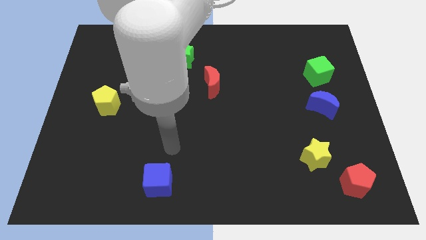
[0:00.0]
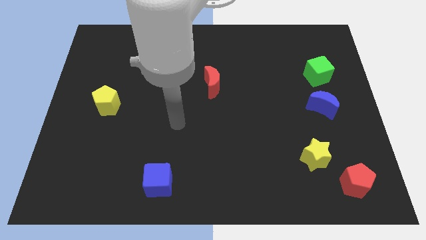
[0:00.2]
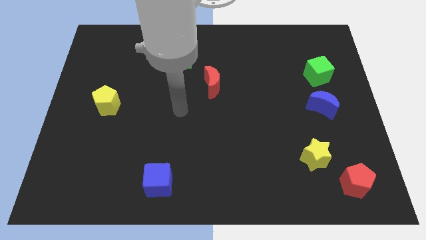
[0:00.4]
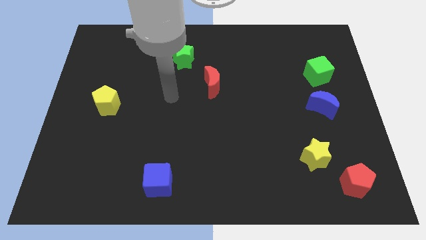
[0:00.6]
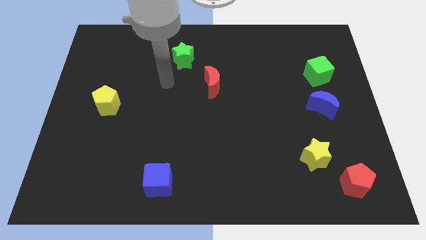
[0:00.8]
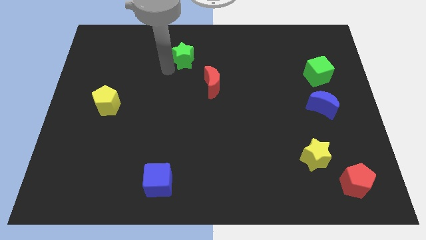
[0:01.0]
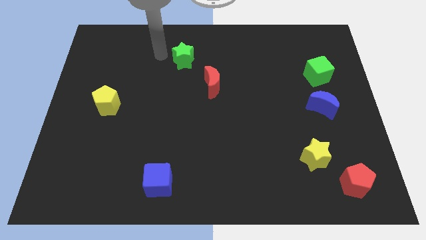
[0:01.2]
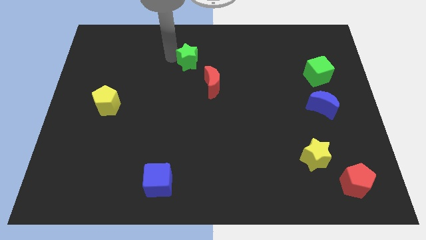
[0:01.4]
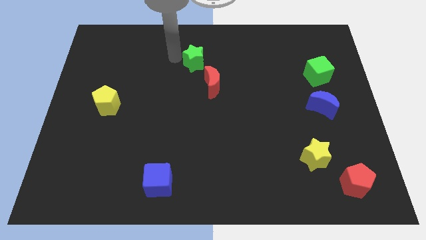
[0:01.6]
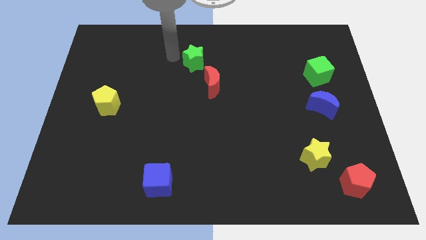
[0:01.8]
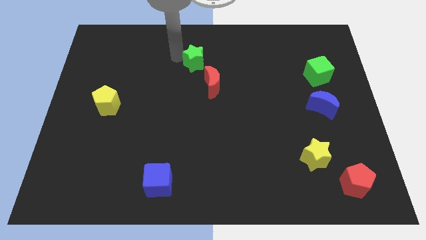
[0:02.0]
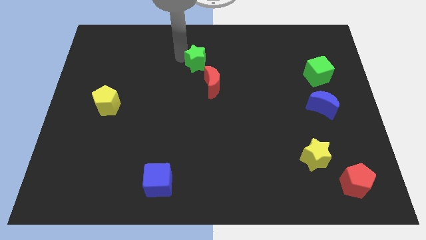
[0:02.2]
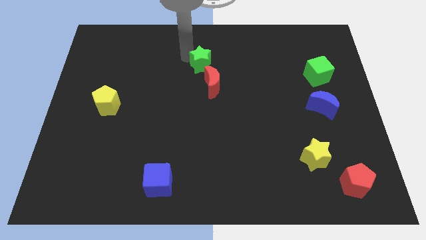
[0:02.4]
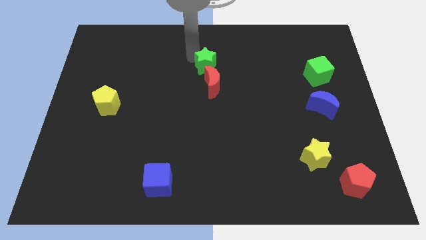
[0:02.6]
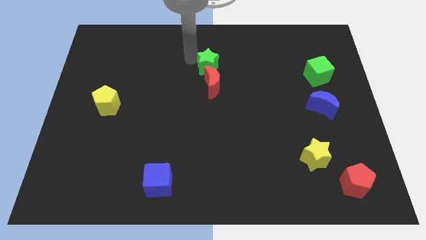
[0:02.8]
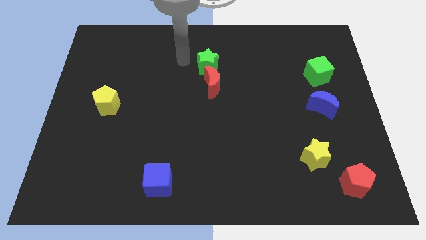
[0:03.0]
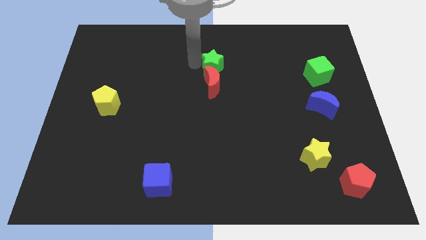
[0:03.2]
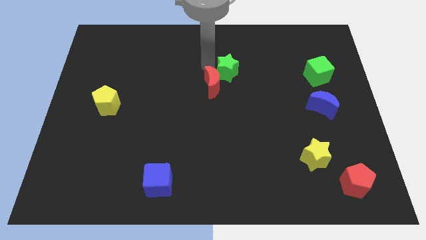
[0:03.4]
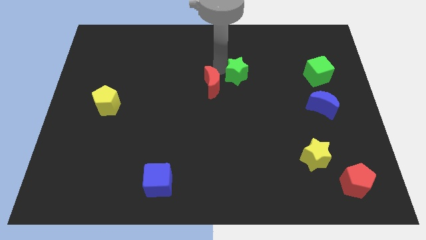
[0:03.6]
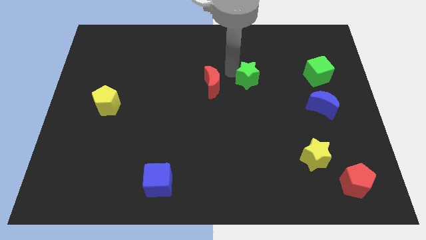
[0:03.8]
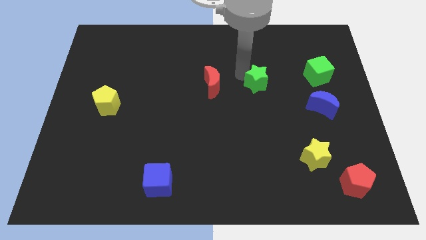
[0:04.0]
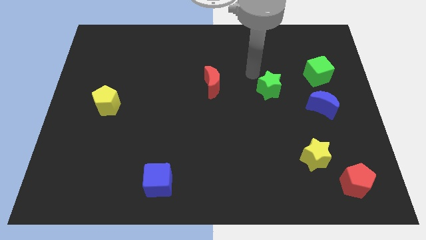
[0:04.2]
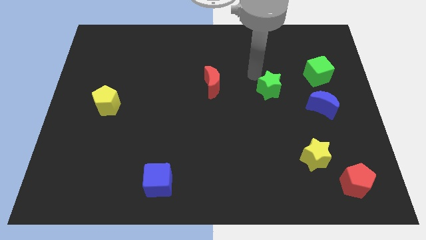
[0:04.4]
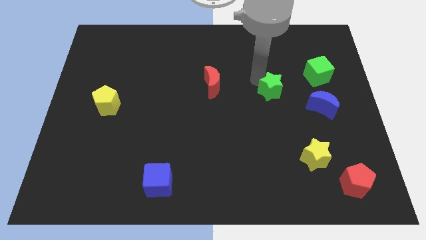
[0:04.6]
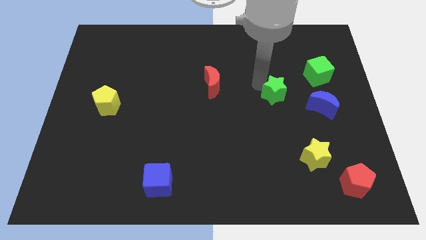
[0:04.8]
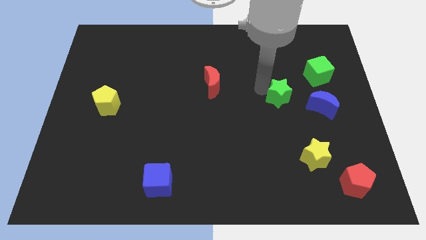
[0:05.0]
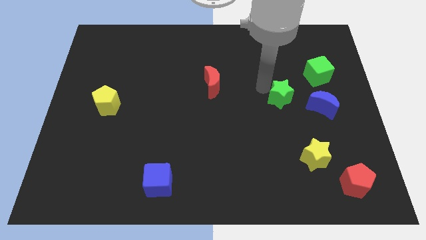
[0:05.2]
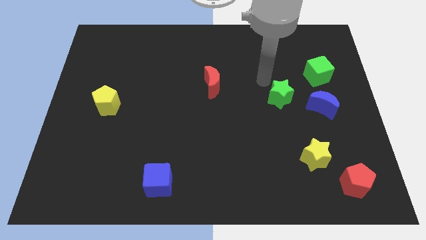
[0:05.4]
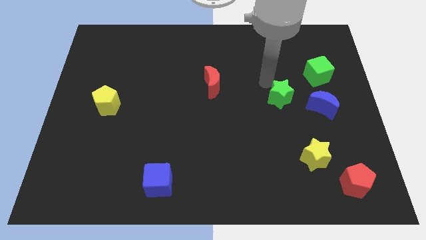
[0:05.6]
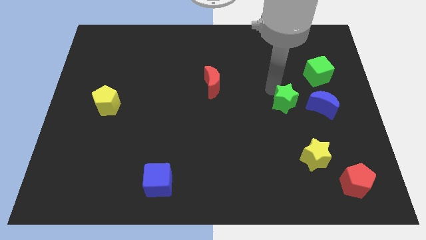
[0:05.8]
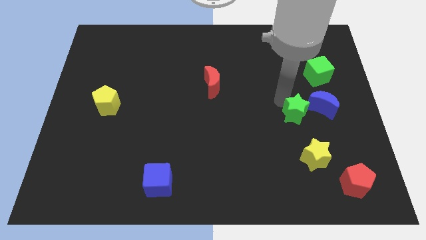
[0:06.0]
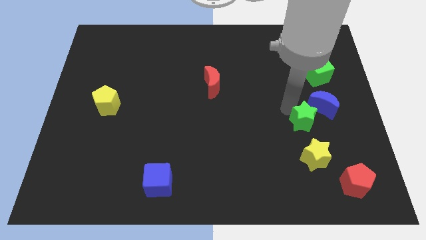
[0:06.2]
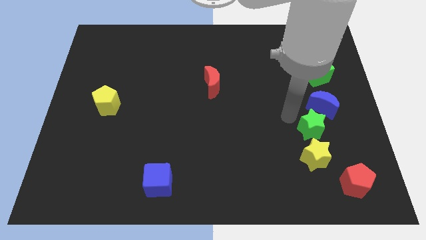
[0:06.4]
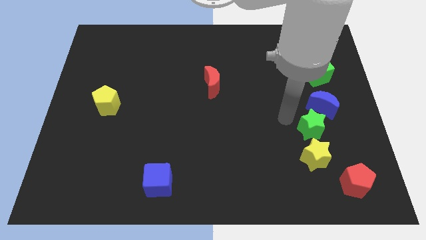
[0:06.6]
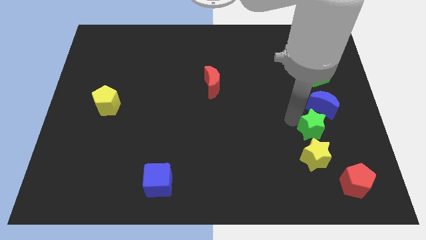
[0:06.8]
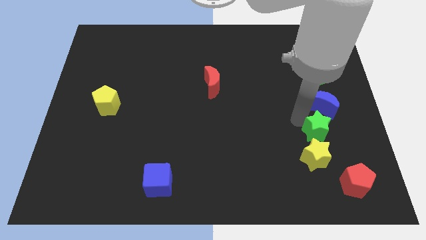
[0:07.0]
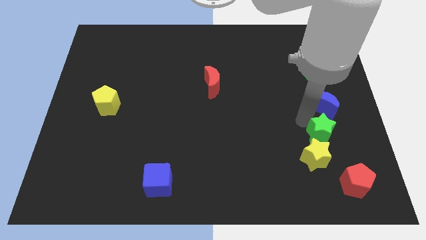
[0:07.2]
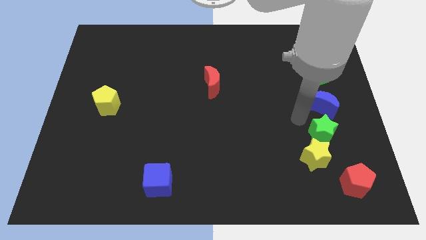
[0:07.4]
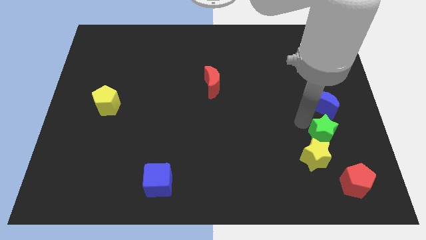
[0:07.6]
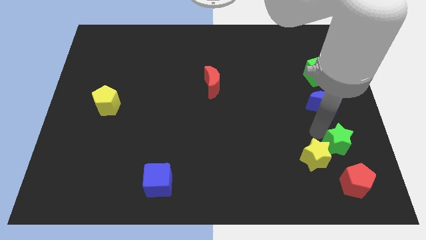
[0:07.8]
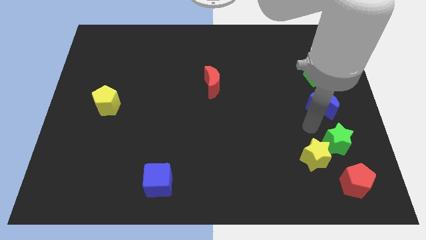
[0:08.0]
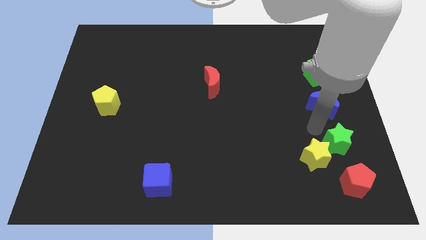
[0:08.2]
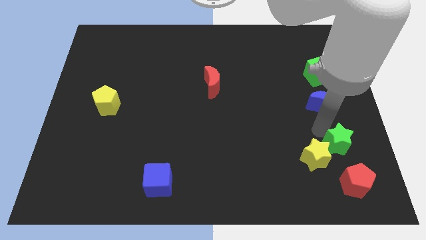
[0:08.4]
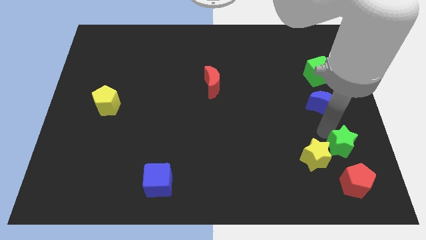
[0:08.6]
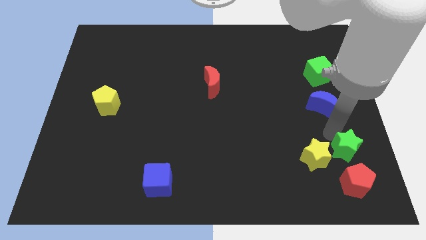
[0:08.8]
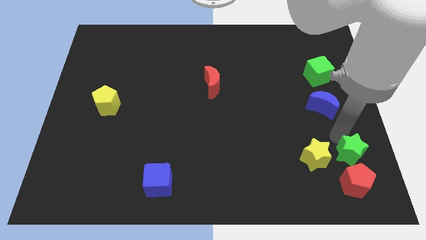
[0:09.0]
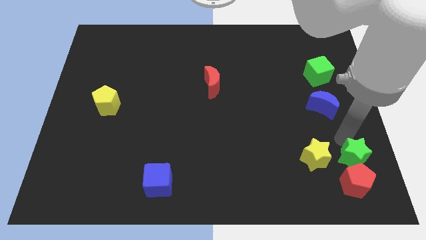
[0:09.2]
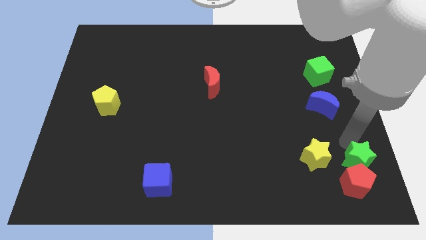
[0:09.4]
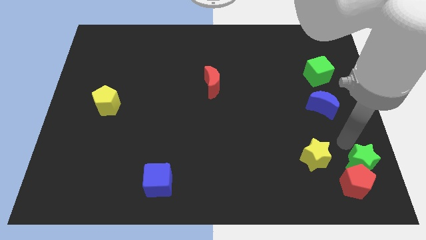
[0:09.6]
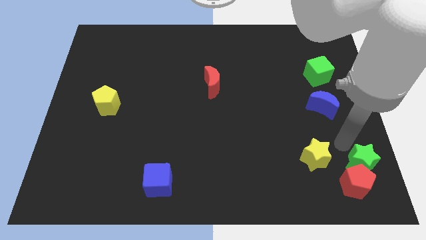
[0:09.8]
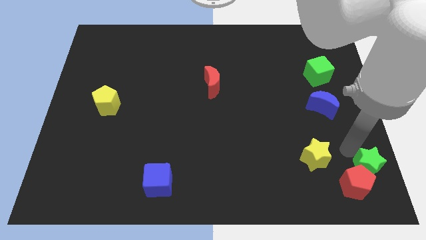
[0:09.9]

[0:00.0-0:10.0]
move the green star to the bottom right corner

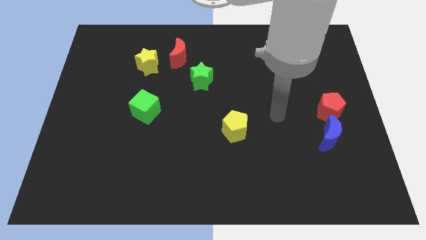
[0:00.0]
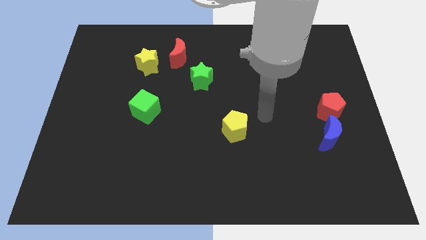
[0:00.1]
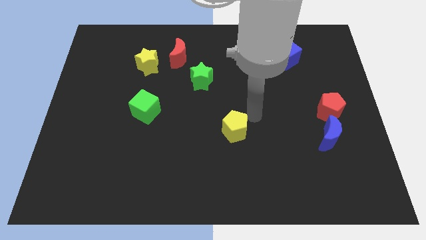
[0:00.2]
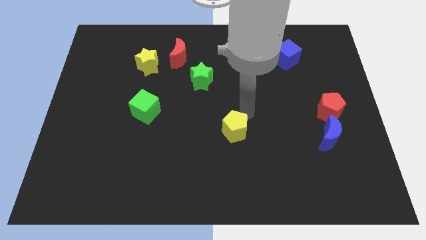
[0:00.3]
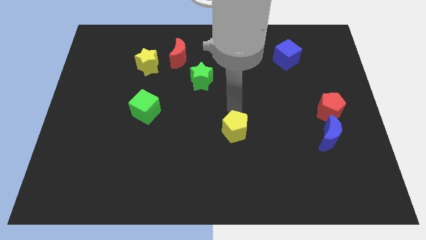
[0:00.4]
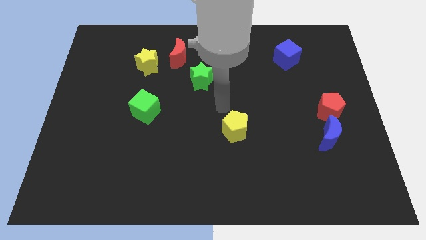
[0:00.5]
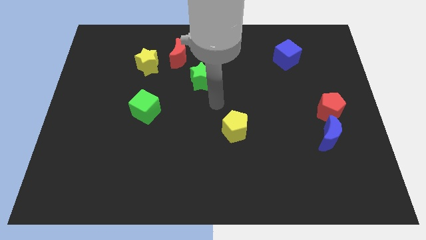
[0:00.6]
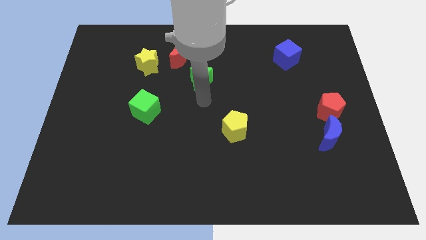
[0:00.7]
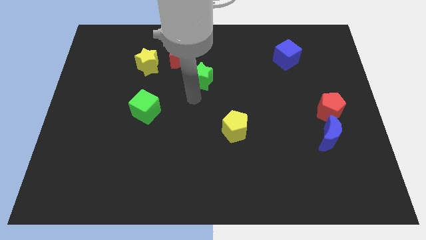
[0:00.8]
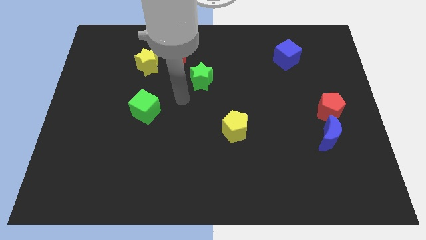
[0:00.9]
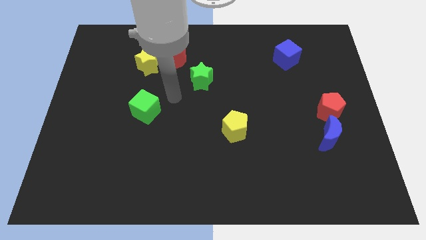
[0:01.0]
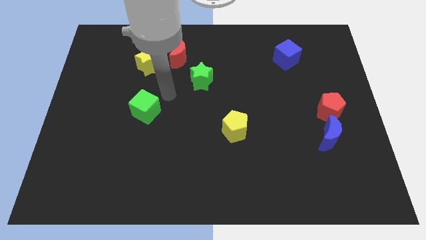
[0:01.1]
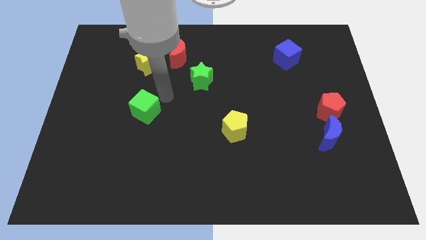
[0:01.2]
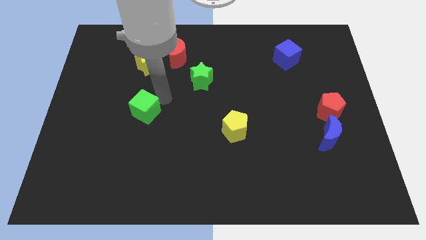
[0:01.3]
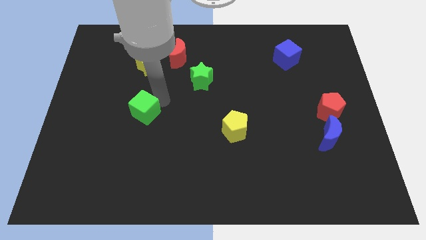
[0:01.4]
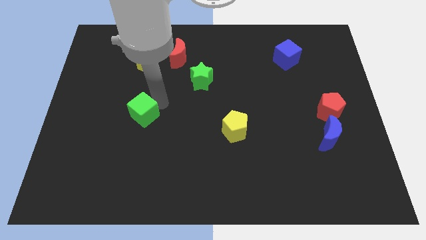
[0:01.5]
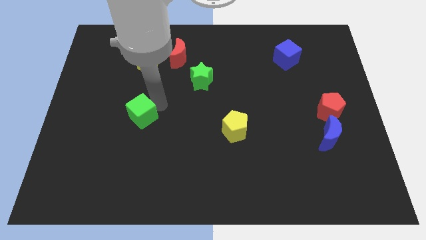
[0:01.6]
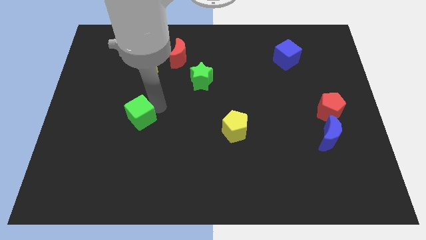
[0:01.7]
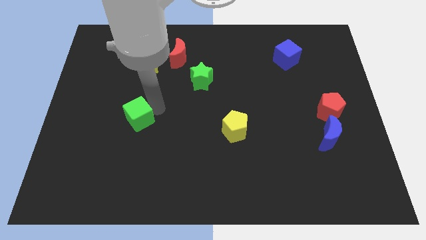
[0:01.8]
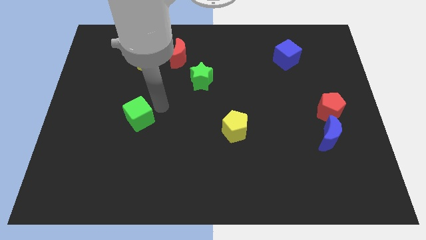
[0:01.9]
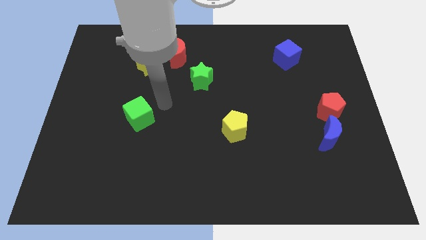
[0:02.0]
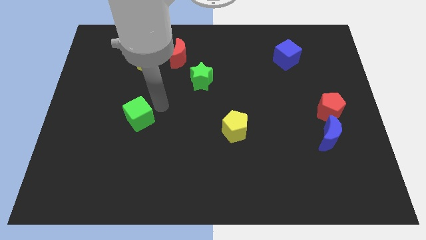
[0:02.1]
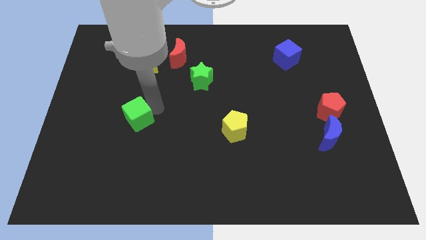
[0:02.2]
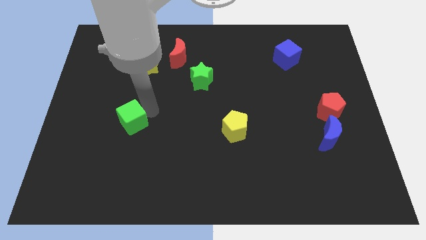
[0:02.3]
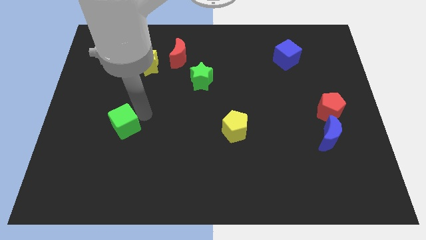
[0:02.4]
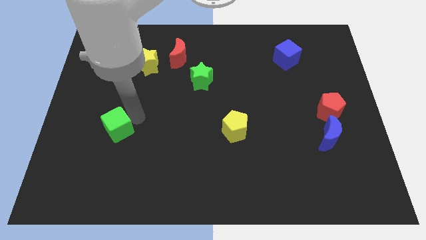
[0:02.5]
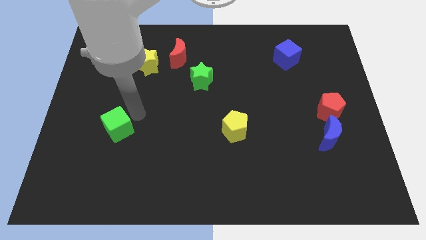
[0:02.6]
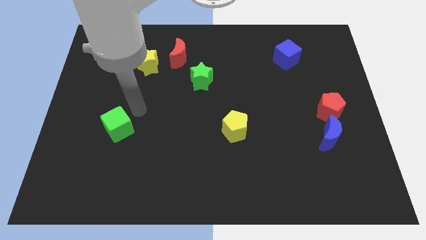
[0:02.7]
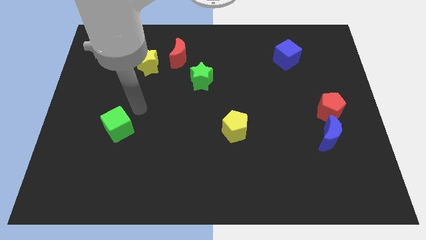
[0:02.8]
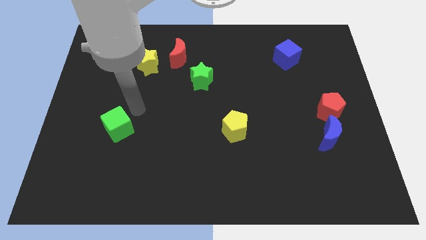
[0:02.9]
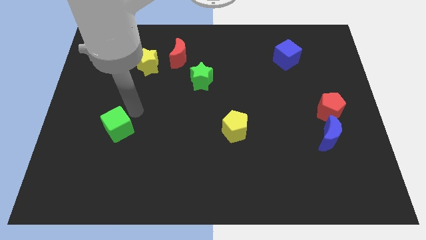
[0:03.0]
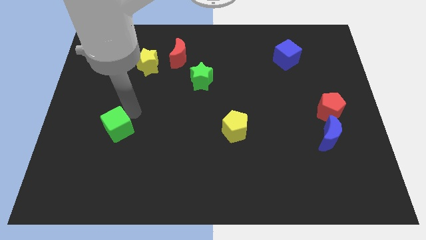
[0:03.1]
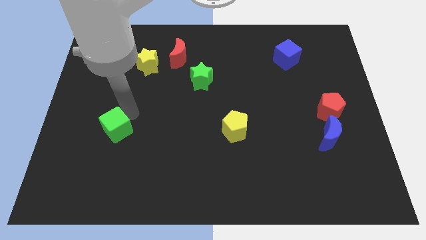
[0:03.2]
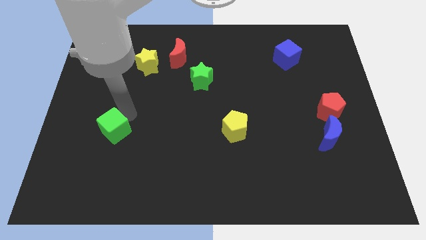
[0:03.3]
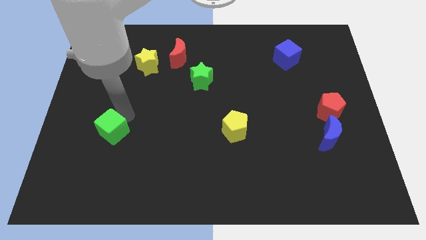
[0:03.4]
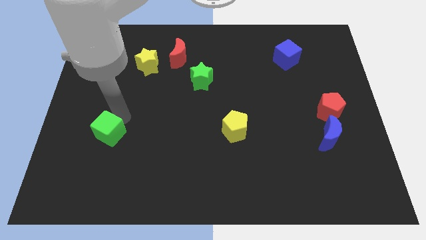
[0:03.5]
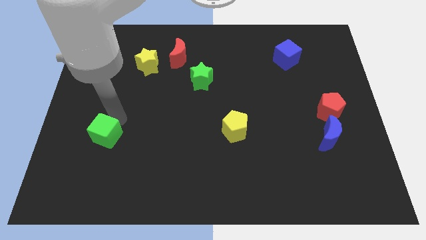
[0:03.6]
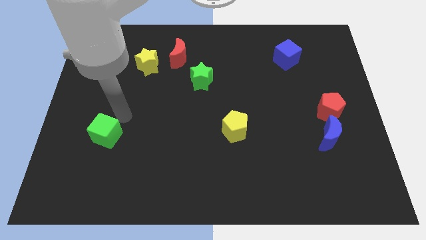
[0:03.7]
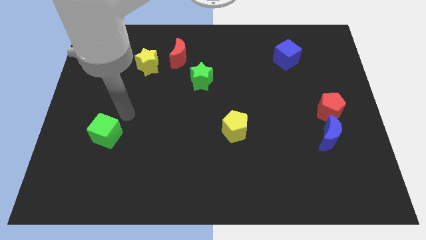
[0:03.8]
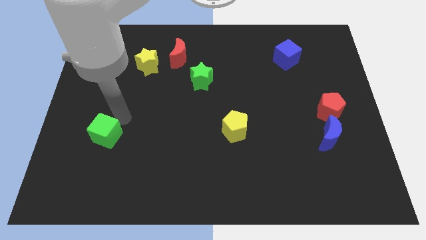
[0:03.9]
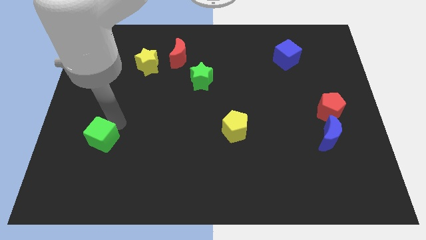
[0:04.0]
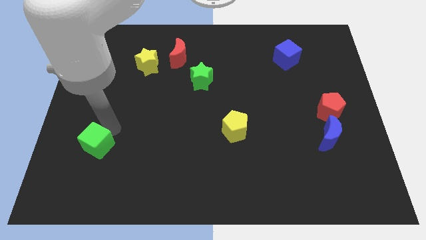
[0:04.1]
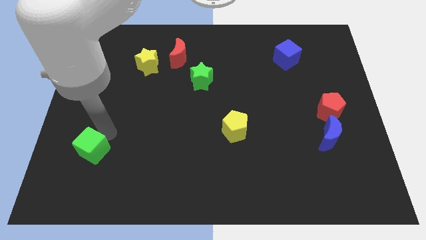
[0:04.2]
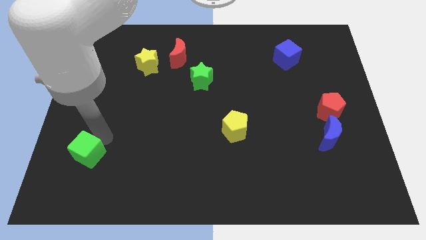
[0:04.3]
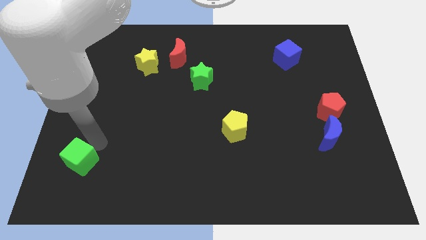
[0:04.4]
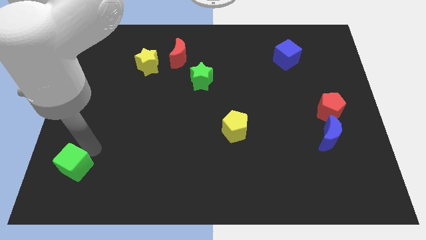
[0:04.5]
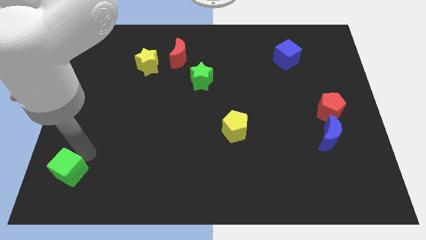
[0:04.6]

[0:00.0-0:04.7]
put the green cube to the bottom left
